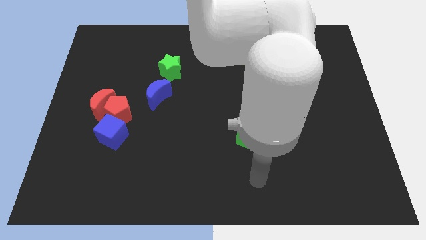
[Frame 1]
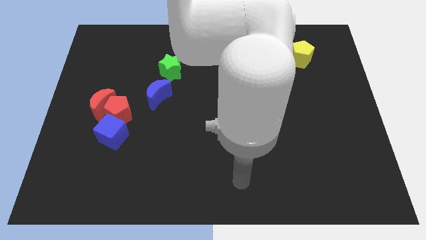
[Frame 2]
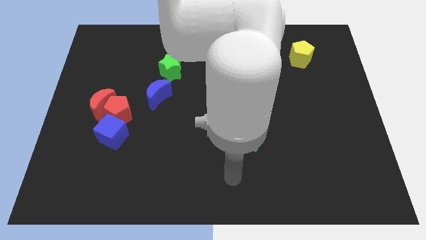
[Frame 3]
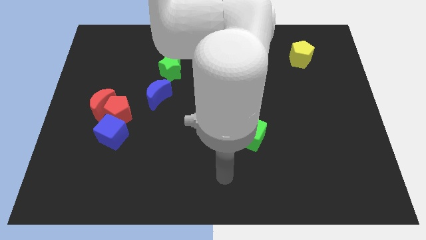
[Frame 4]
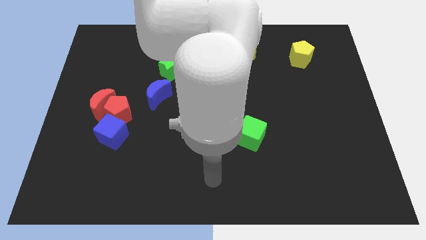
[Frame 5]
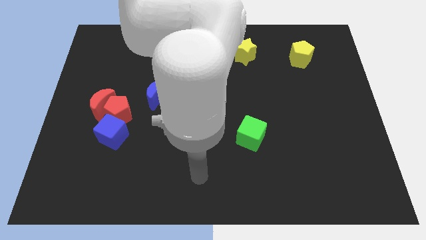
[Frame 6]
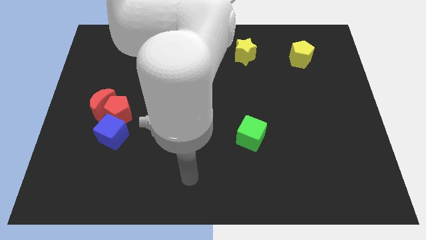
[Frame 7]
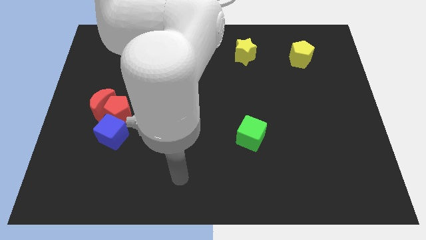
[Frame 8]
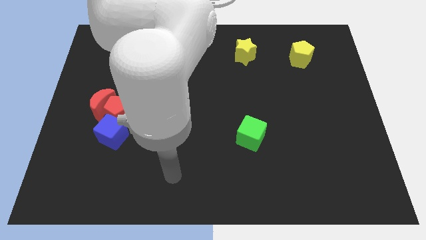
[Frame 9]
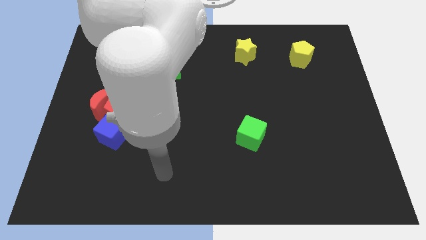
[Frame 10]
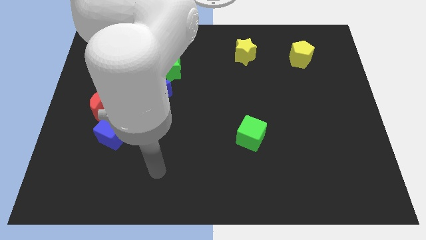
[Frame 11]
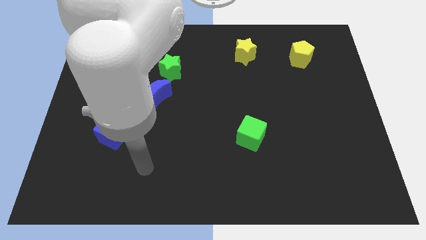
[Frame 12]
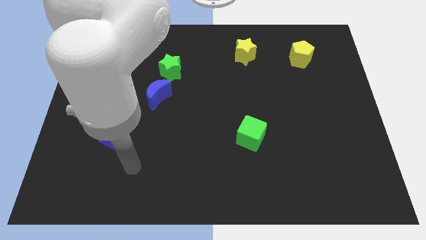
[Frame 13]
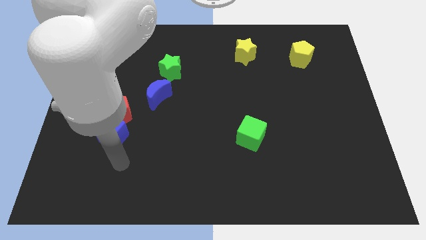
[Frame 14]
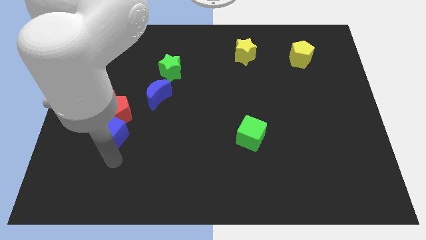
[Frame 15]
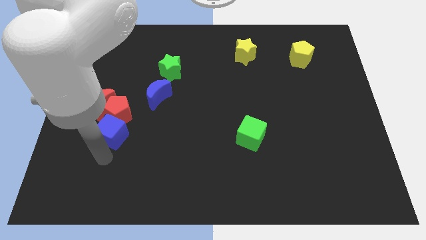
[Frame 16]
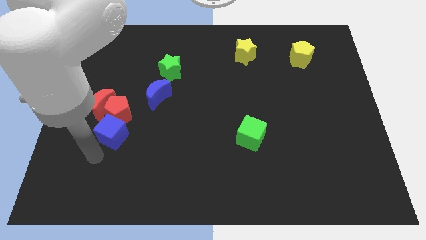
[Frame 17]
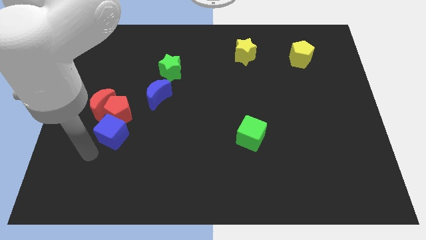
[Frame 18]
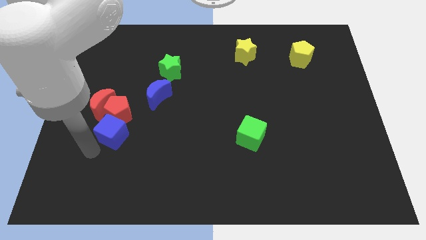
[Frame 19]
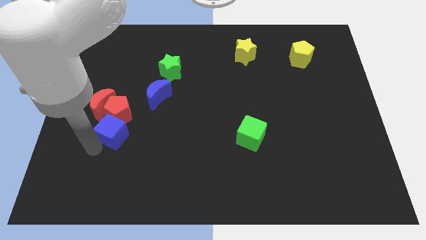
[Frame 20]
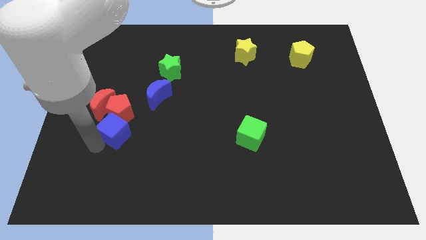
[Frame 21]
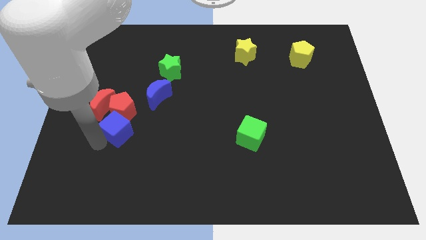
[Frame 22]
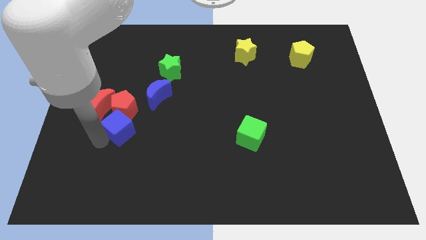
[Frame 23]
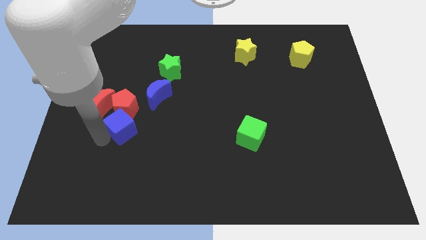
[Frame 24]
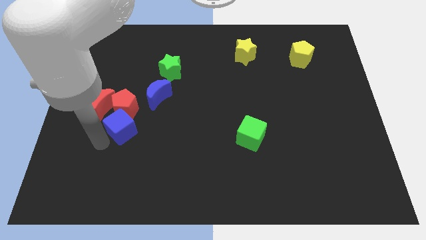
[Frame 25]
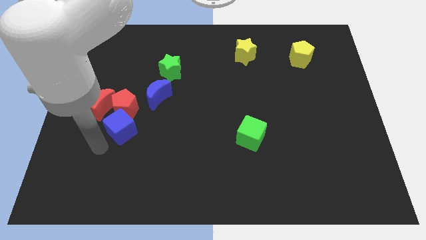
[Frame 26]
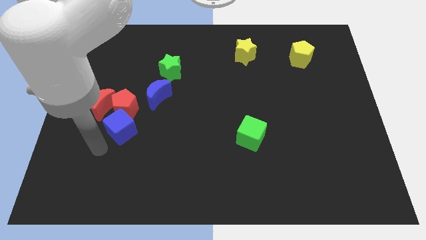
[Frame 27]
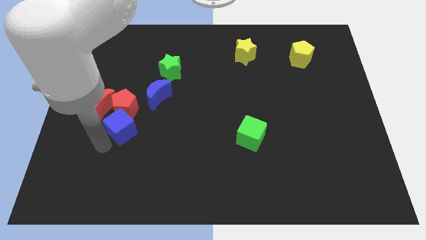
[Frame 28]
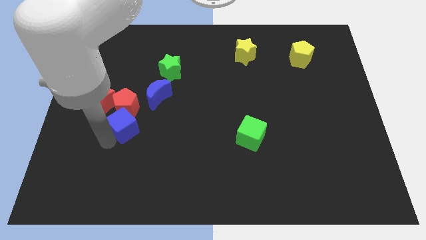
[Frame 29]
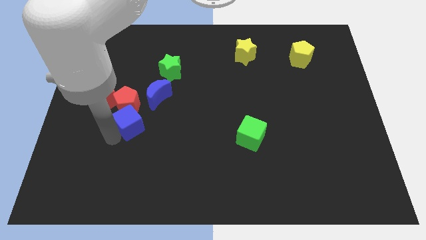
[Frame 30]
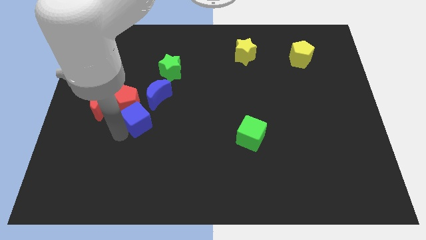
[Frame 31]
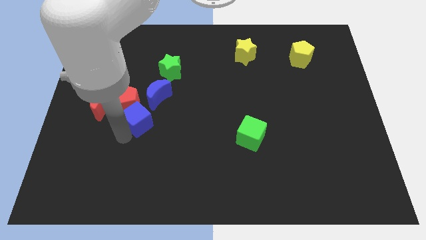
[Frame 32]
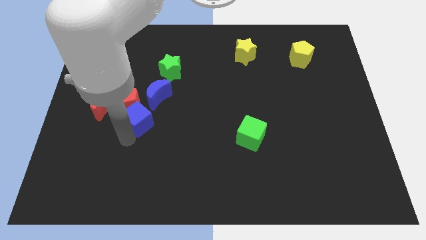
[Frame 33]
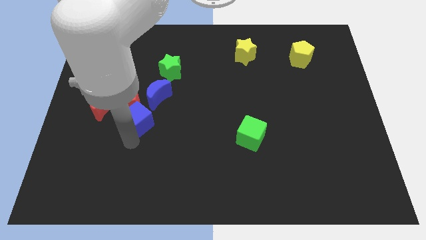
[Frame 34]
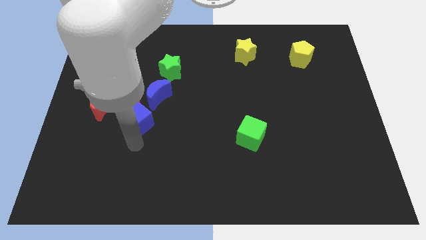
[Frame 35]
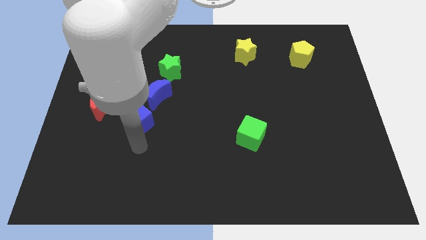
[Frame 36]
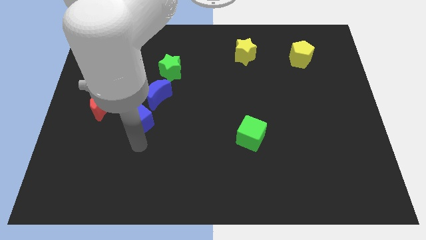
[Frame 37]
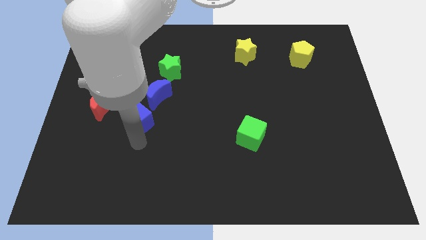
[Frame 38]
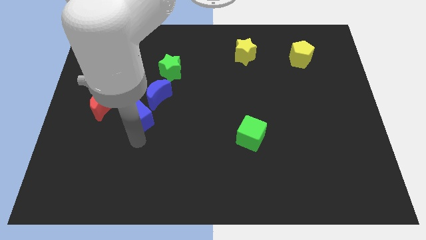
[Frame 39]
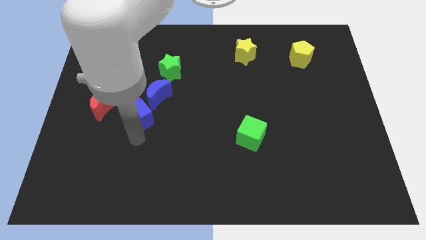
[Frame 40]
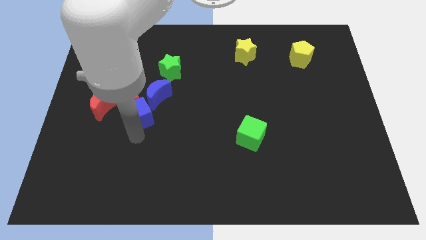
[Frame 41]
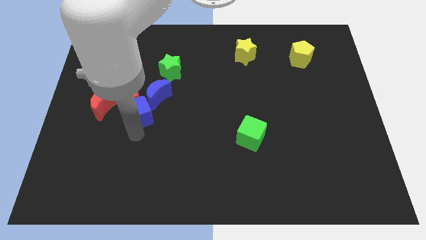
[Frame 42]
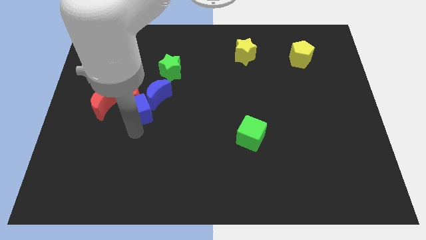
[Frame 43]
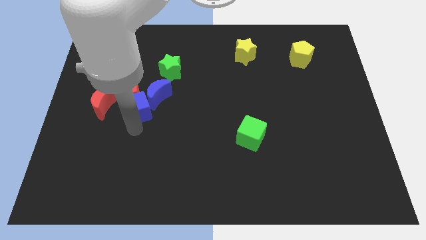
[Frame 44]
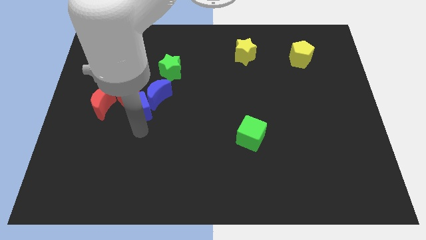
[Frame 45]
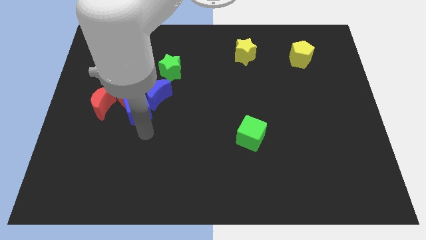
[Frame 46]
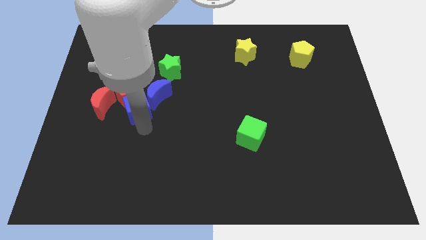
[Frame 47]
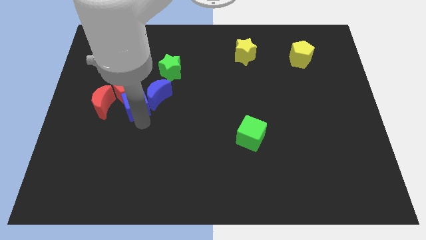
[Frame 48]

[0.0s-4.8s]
move the blue cube a little upwards

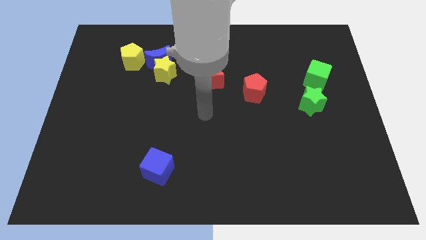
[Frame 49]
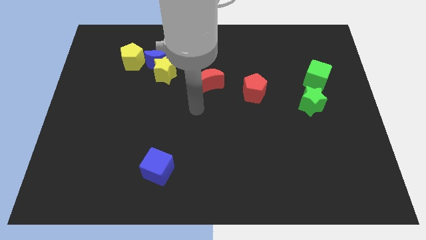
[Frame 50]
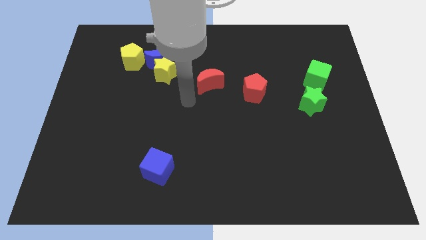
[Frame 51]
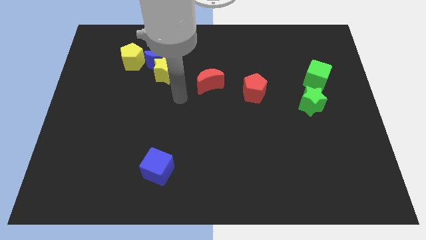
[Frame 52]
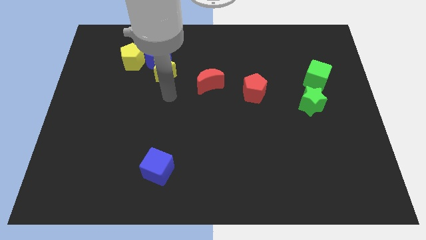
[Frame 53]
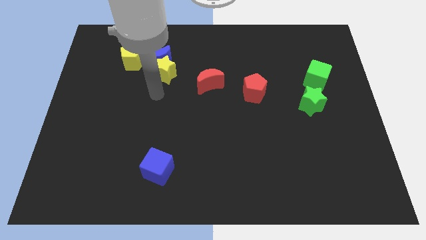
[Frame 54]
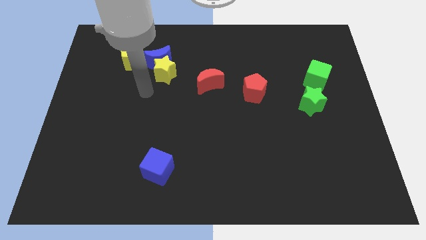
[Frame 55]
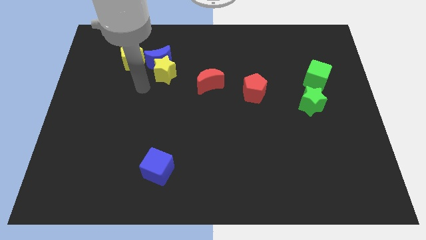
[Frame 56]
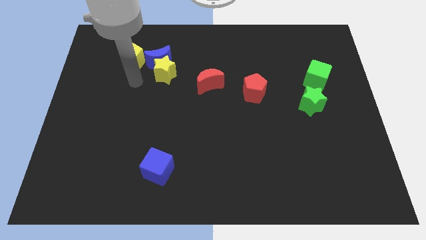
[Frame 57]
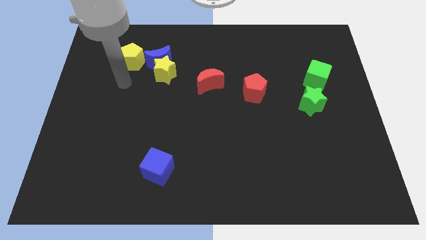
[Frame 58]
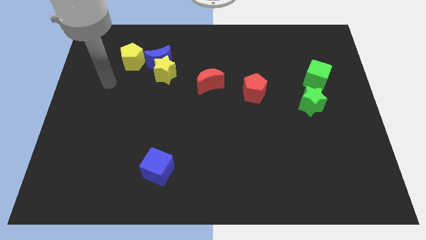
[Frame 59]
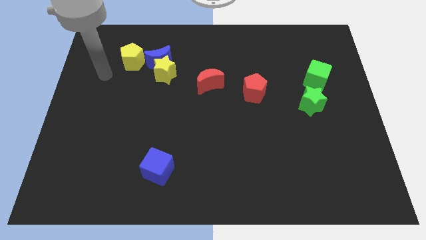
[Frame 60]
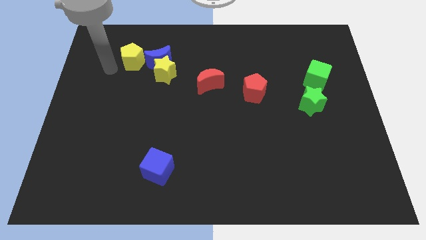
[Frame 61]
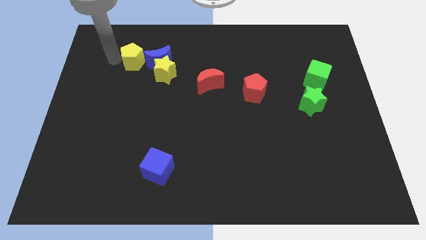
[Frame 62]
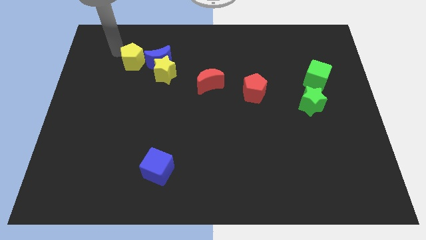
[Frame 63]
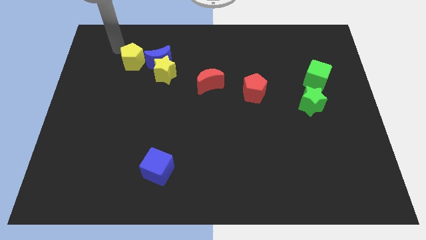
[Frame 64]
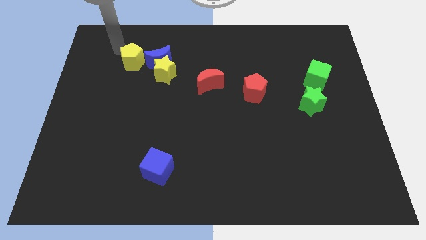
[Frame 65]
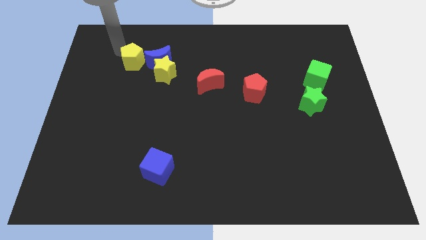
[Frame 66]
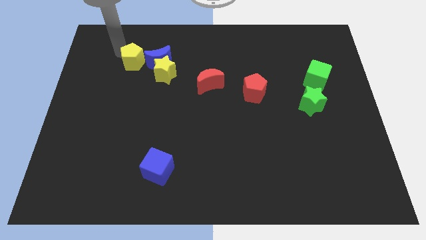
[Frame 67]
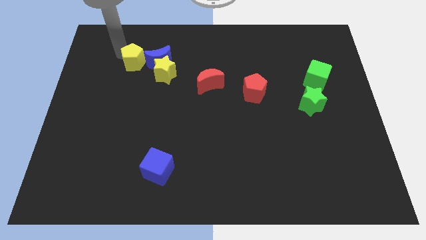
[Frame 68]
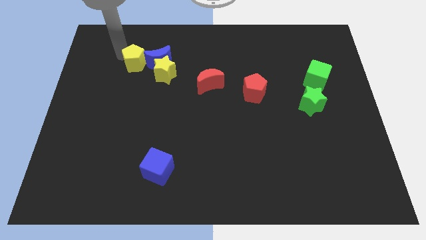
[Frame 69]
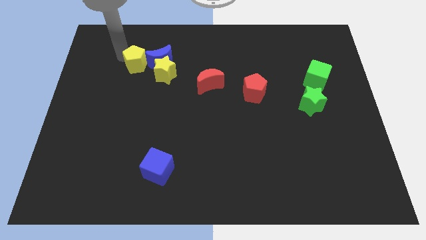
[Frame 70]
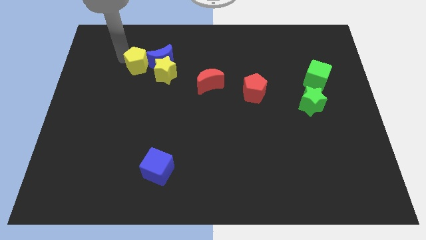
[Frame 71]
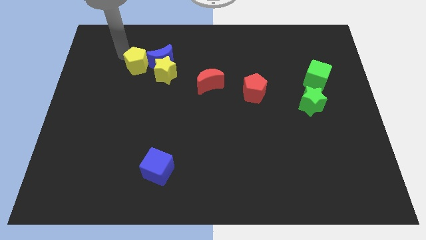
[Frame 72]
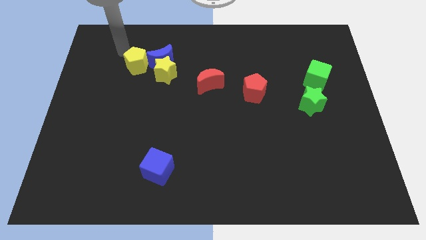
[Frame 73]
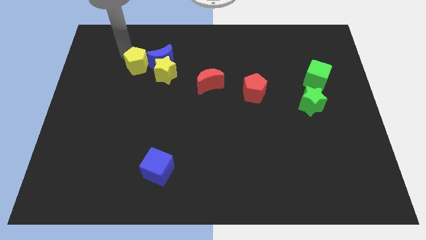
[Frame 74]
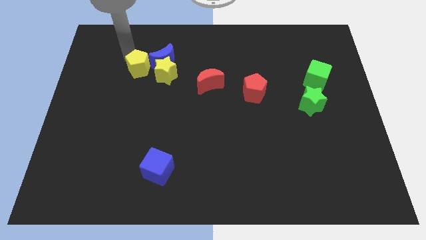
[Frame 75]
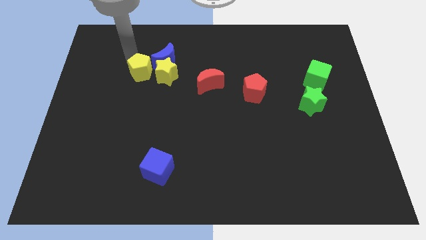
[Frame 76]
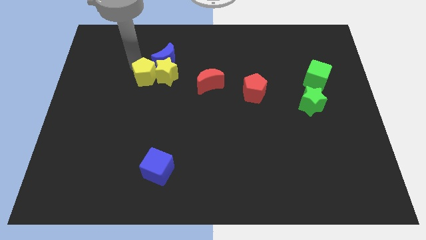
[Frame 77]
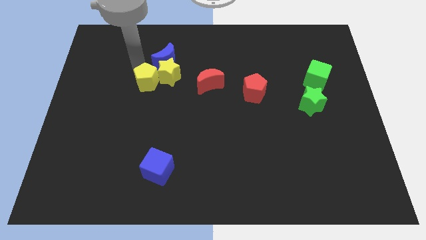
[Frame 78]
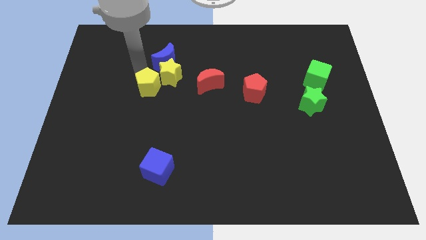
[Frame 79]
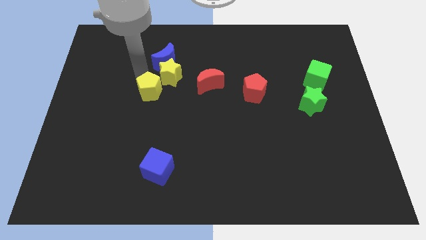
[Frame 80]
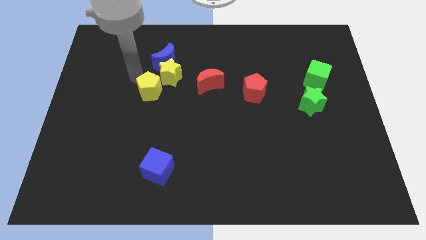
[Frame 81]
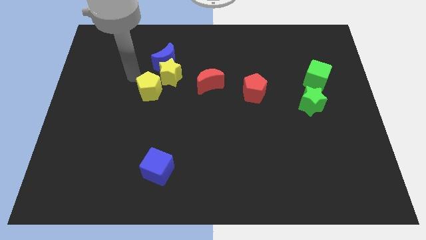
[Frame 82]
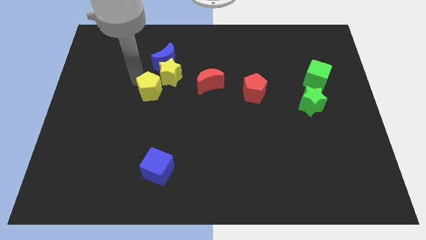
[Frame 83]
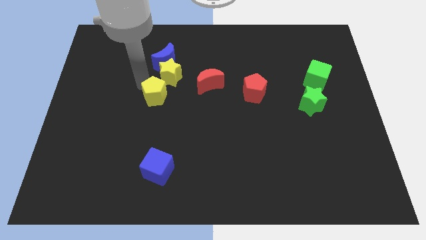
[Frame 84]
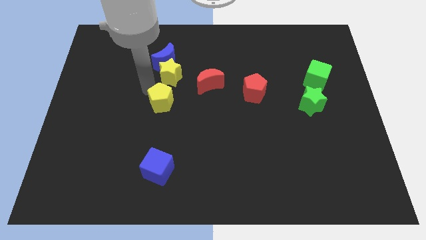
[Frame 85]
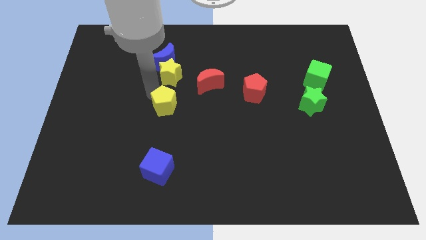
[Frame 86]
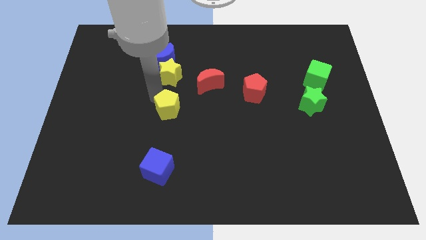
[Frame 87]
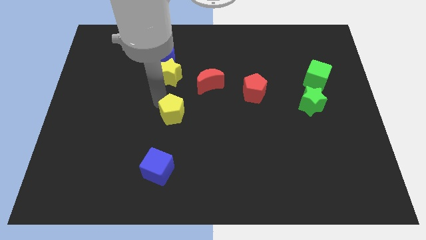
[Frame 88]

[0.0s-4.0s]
push the yellow pentagon downwards and to the right
